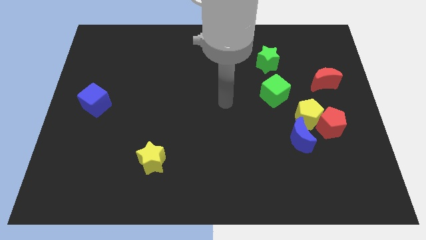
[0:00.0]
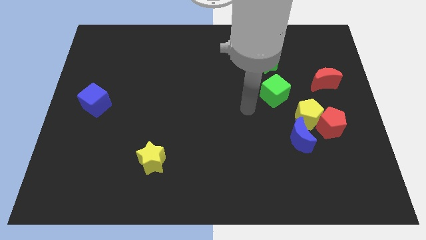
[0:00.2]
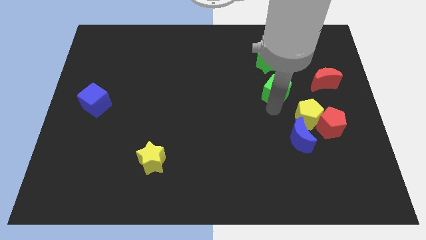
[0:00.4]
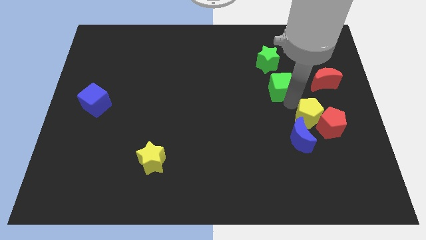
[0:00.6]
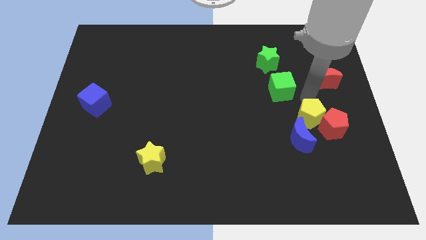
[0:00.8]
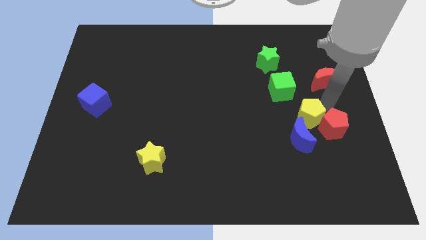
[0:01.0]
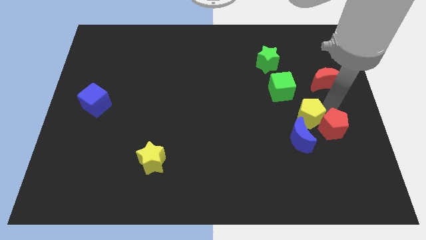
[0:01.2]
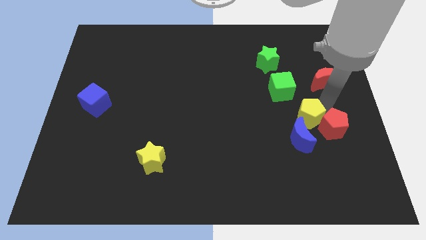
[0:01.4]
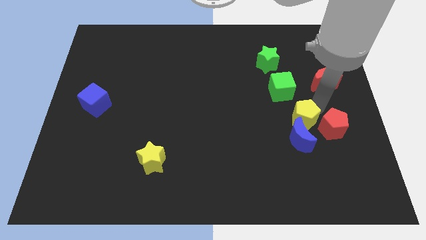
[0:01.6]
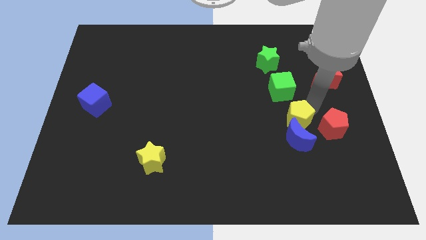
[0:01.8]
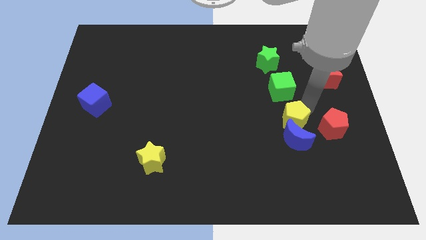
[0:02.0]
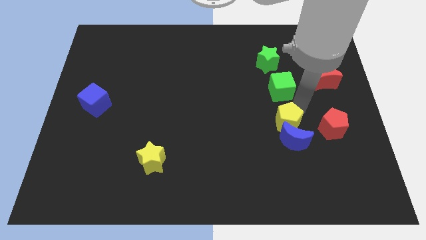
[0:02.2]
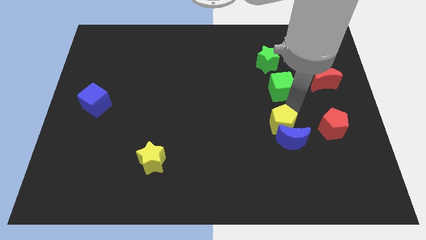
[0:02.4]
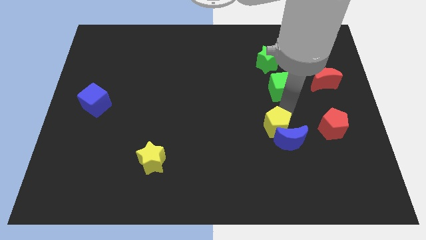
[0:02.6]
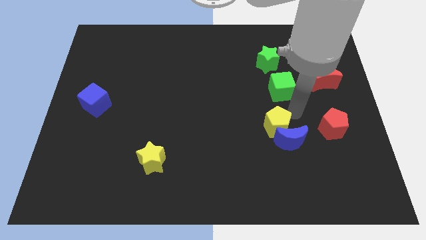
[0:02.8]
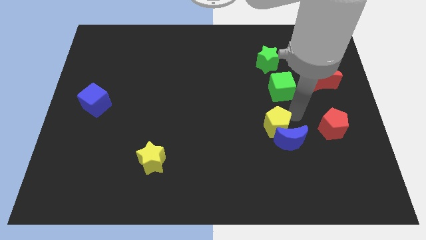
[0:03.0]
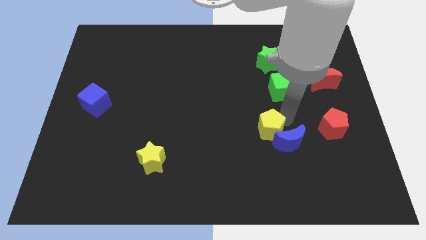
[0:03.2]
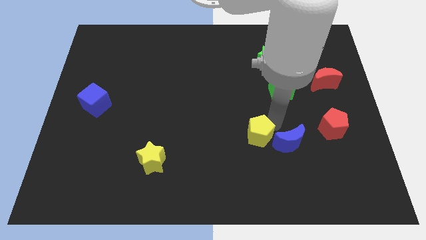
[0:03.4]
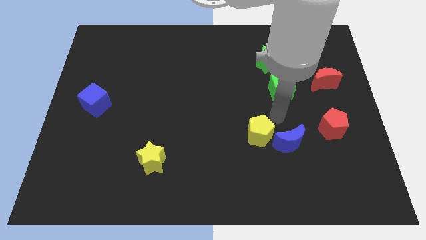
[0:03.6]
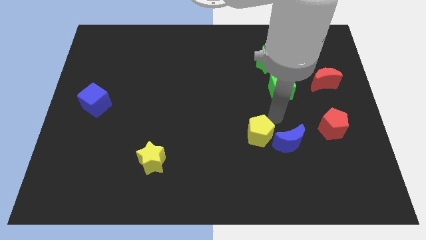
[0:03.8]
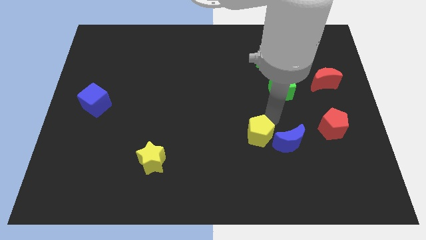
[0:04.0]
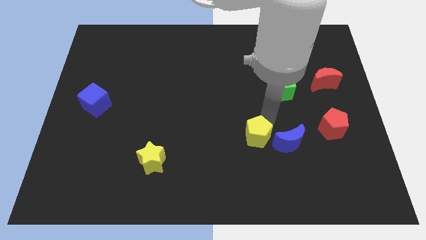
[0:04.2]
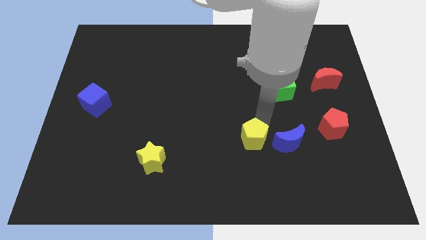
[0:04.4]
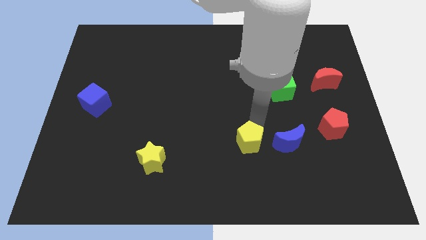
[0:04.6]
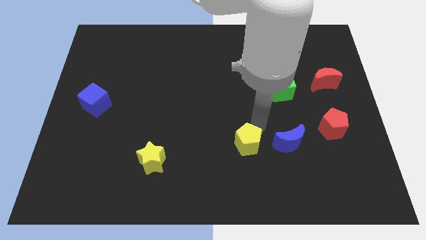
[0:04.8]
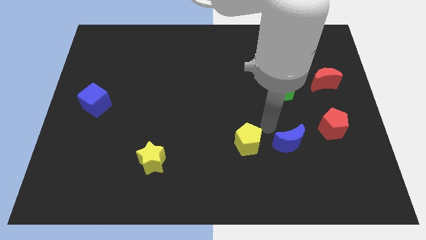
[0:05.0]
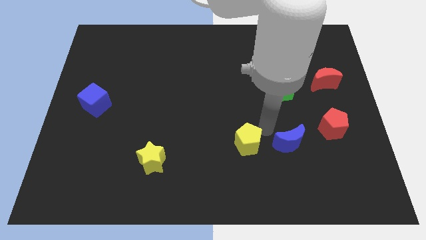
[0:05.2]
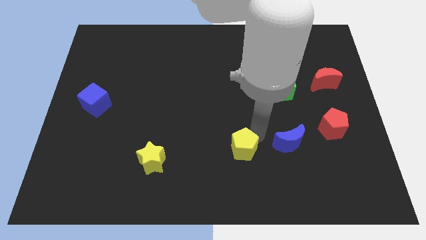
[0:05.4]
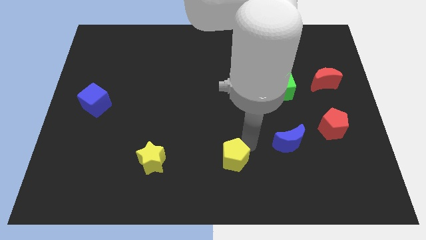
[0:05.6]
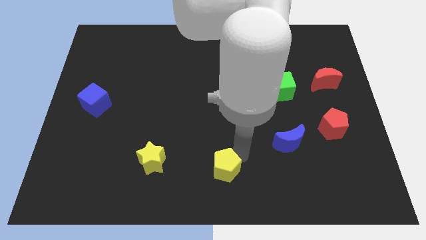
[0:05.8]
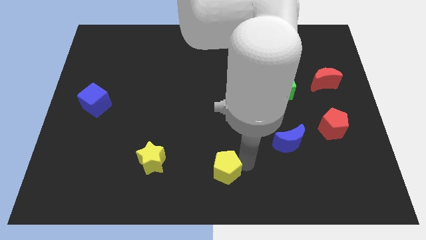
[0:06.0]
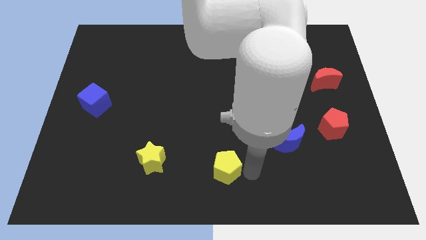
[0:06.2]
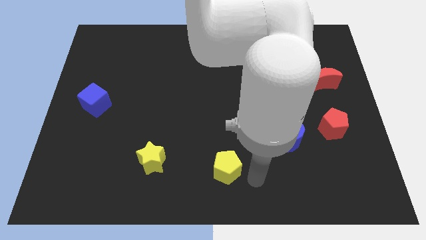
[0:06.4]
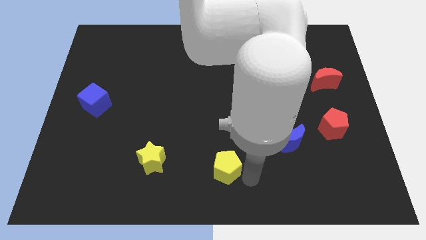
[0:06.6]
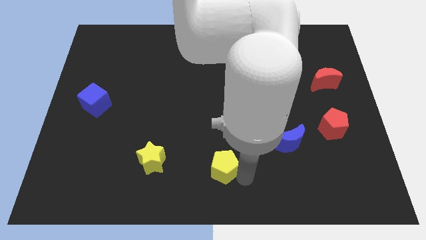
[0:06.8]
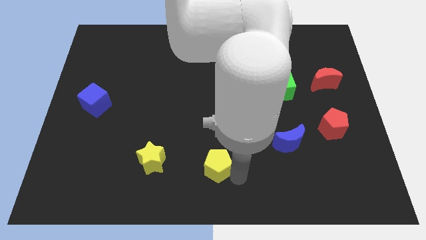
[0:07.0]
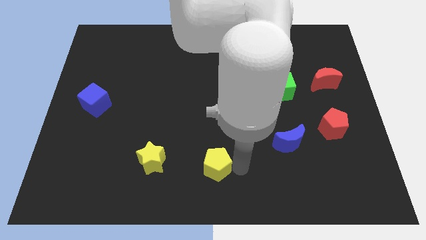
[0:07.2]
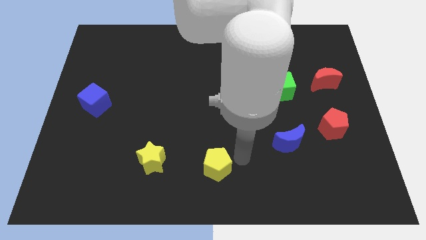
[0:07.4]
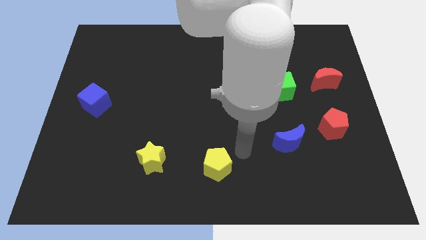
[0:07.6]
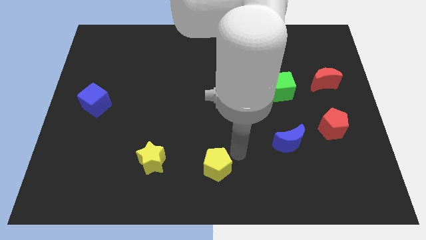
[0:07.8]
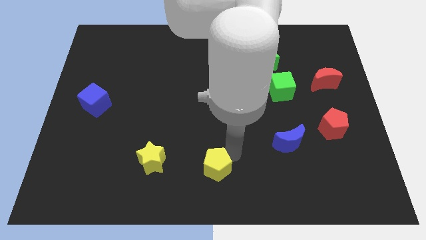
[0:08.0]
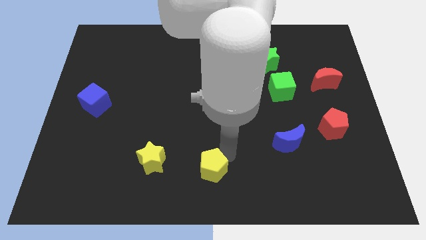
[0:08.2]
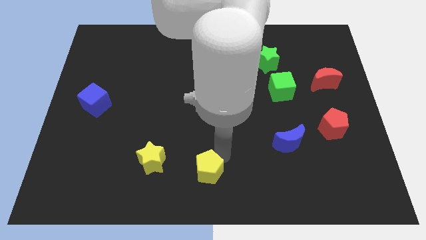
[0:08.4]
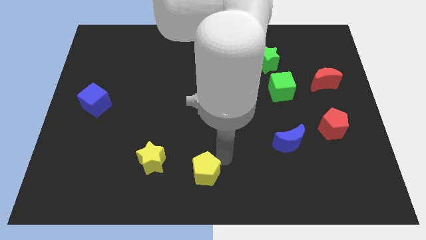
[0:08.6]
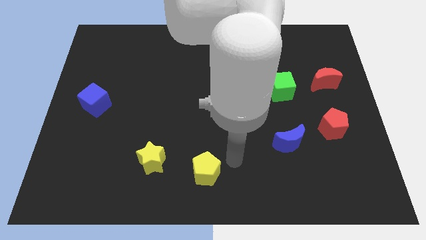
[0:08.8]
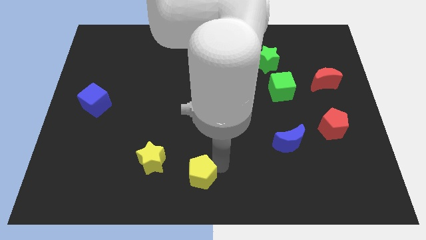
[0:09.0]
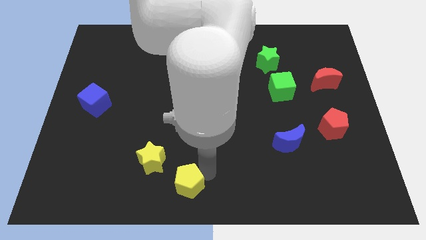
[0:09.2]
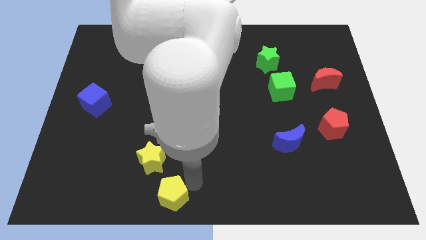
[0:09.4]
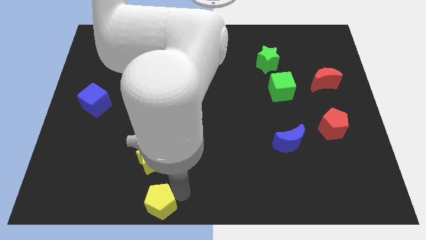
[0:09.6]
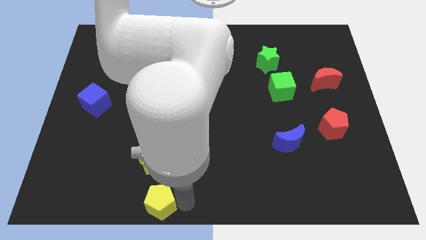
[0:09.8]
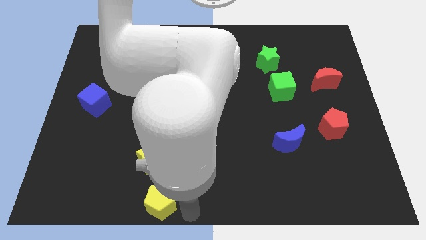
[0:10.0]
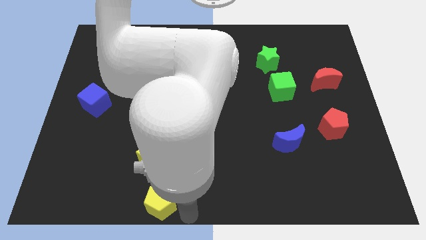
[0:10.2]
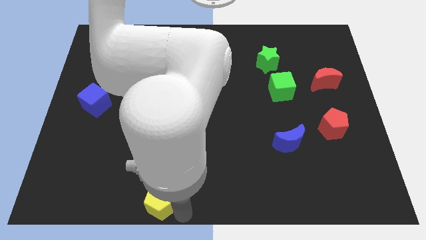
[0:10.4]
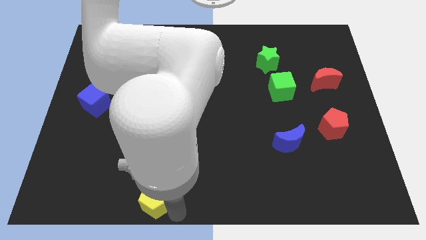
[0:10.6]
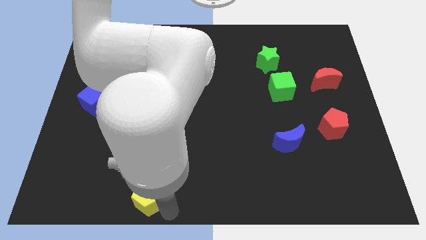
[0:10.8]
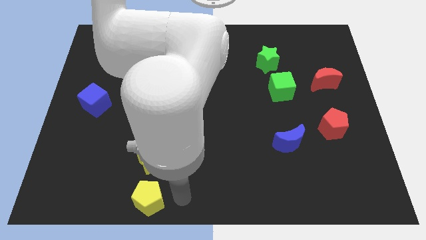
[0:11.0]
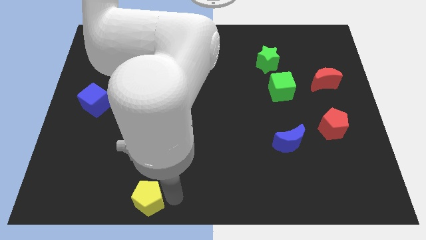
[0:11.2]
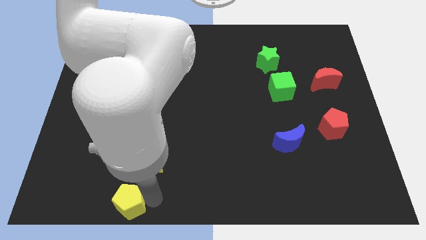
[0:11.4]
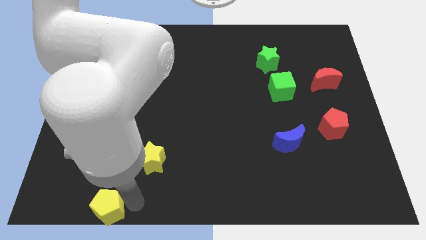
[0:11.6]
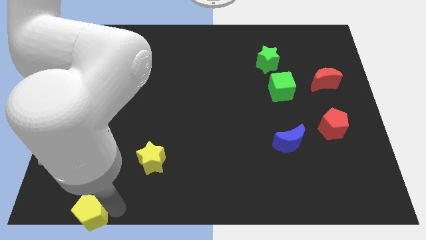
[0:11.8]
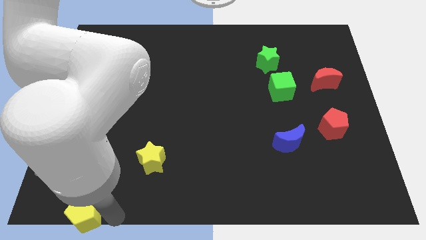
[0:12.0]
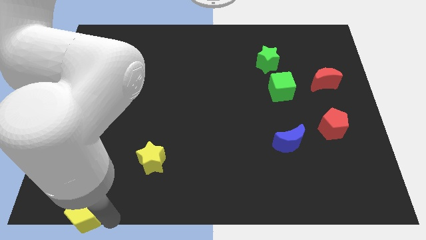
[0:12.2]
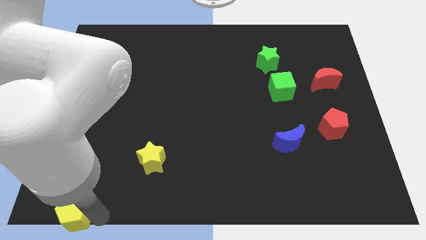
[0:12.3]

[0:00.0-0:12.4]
put the yellow pentagon to the bottom left of the board
